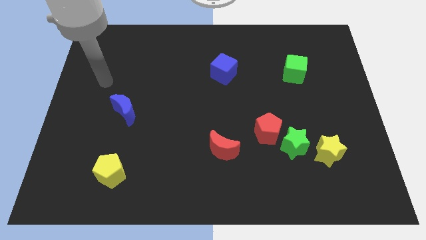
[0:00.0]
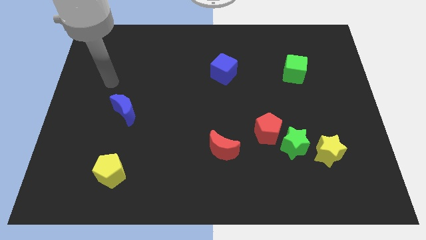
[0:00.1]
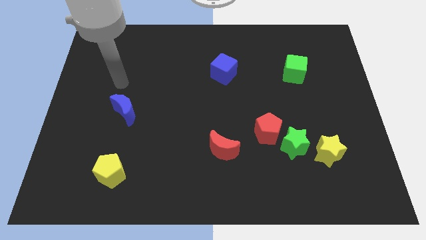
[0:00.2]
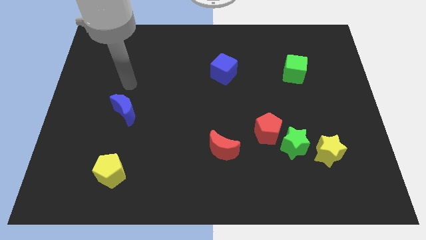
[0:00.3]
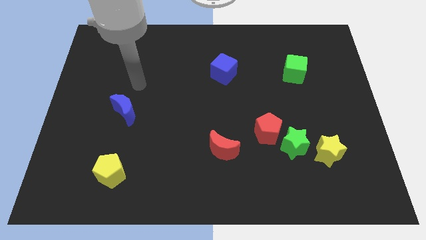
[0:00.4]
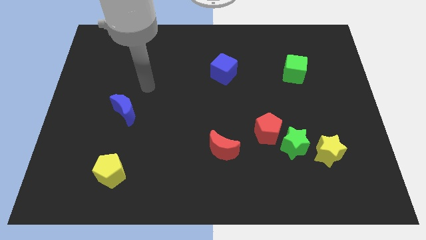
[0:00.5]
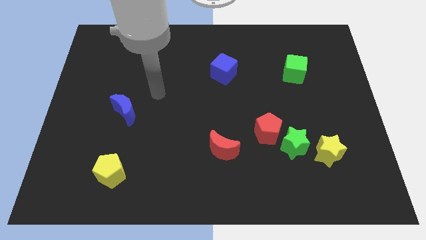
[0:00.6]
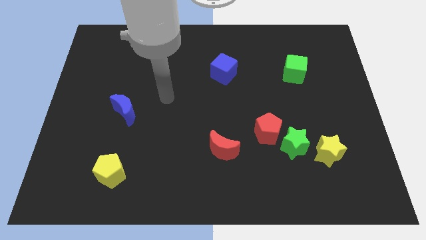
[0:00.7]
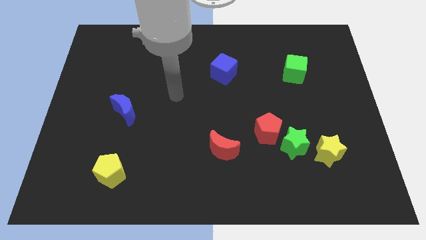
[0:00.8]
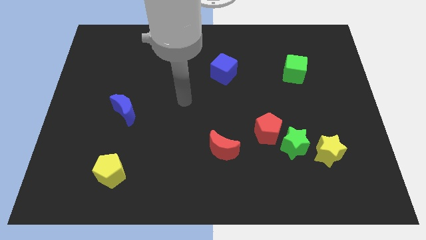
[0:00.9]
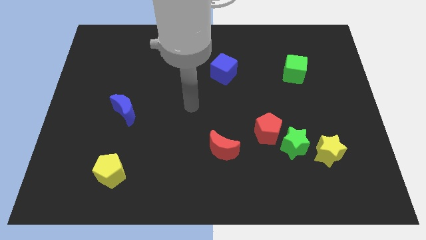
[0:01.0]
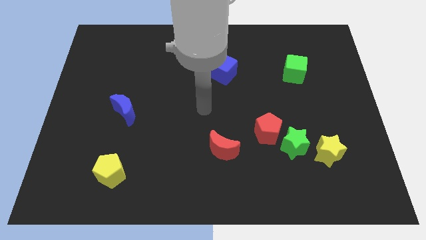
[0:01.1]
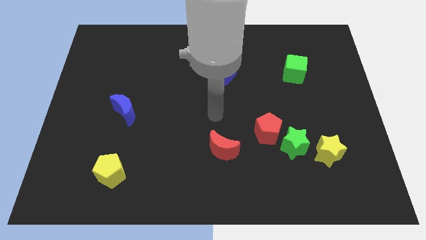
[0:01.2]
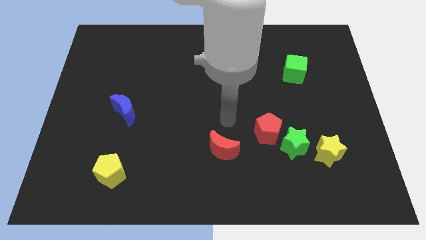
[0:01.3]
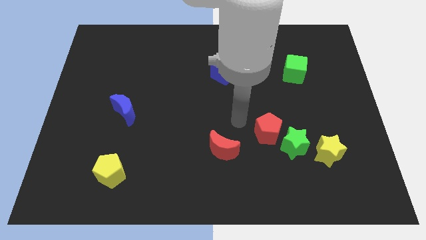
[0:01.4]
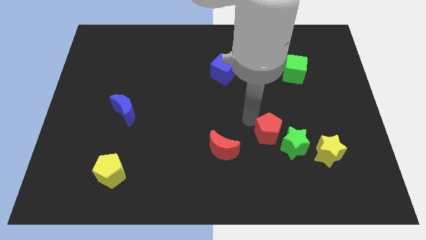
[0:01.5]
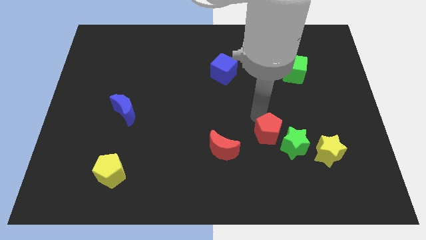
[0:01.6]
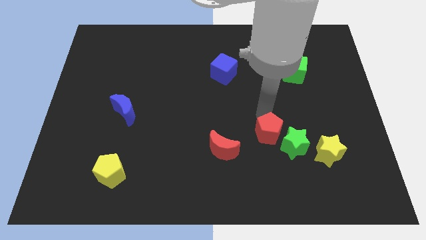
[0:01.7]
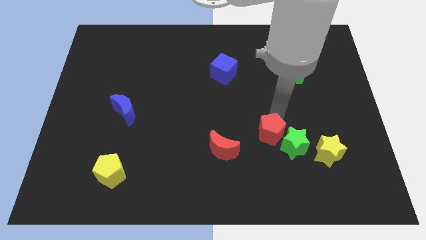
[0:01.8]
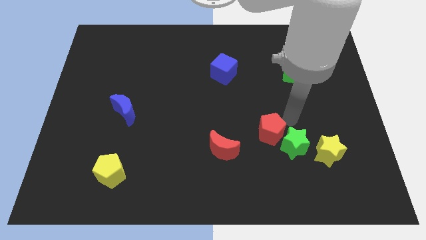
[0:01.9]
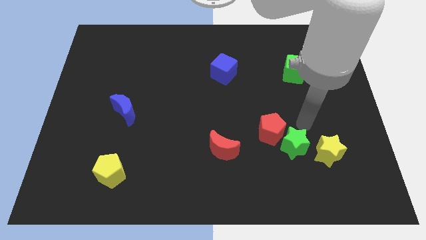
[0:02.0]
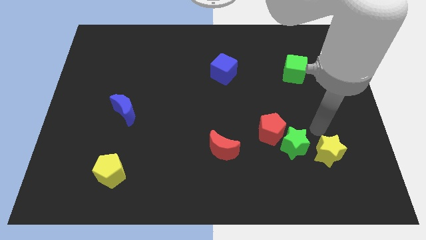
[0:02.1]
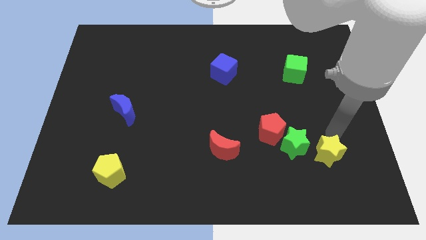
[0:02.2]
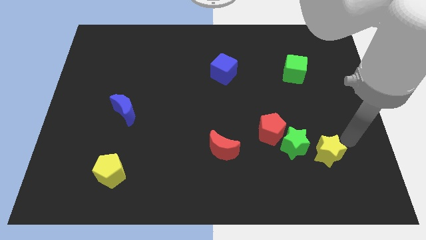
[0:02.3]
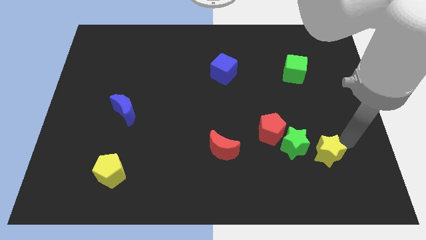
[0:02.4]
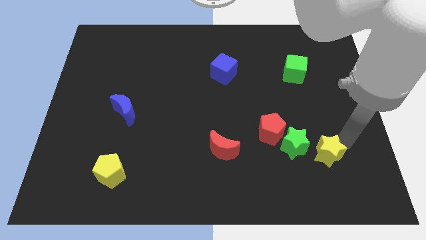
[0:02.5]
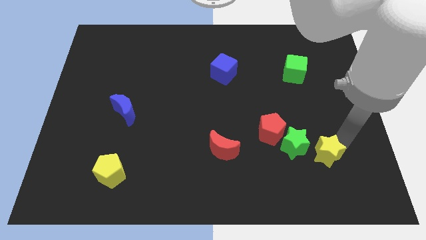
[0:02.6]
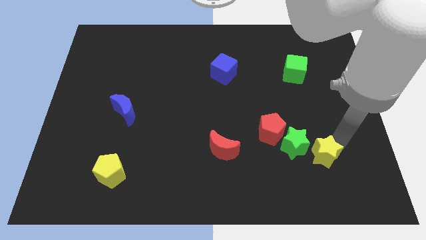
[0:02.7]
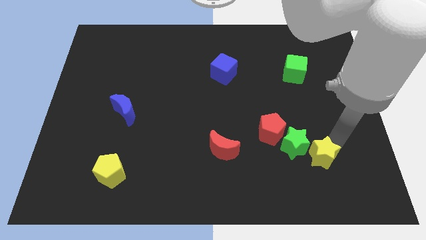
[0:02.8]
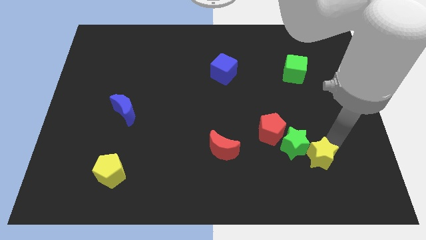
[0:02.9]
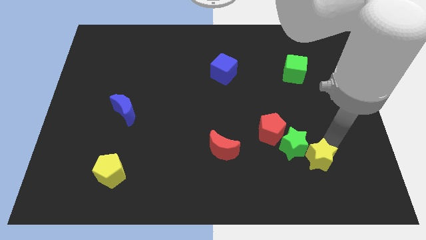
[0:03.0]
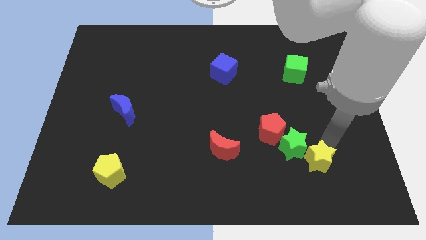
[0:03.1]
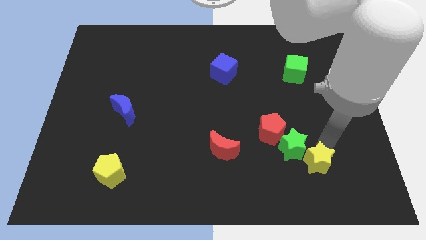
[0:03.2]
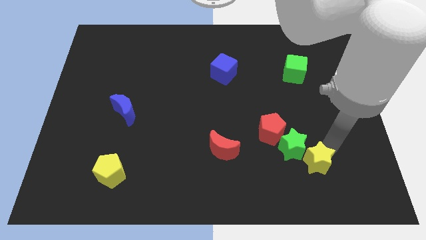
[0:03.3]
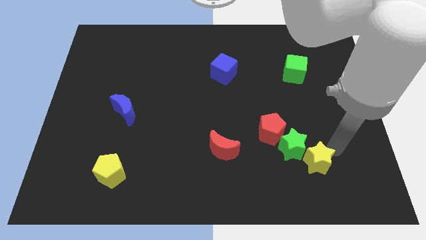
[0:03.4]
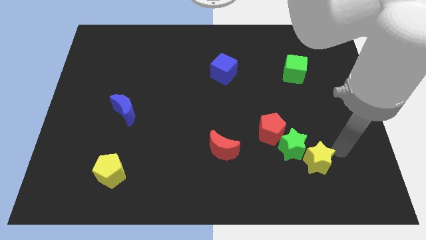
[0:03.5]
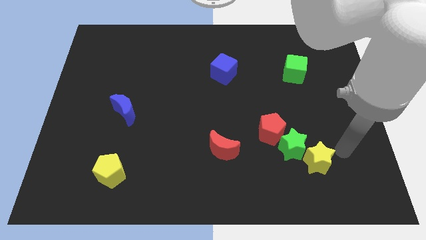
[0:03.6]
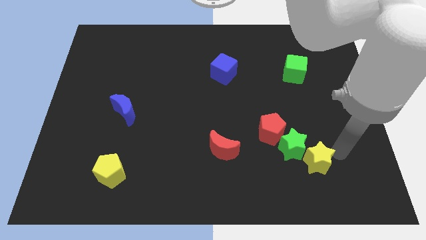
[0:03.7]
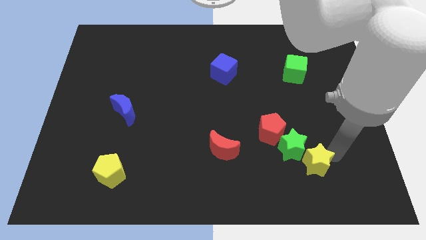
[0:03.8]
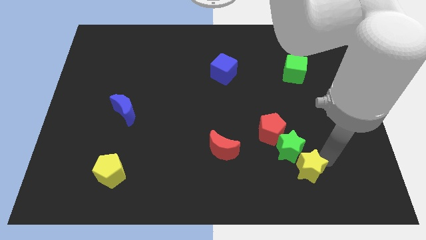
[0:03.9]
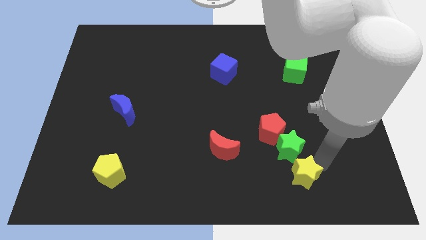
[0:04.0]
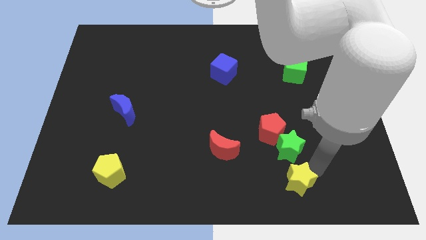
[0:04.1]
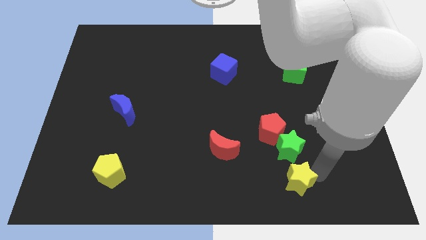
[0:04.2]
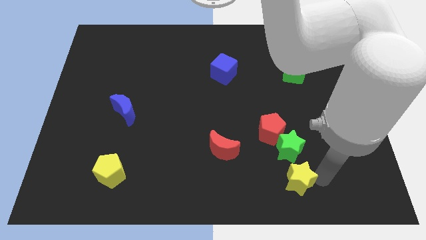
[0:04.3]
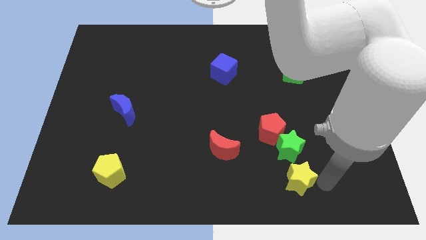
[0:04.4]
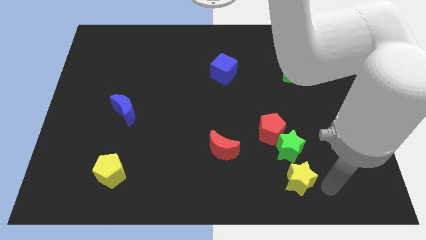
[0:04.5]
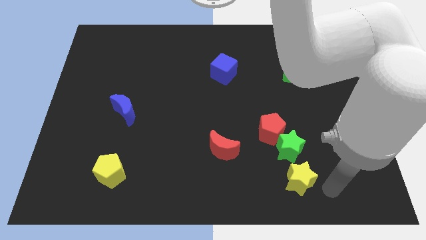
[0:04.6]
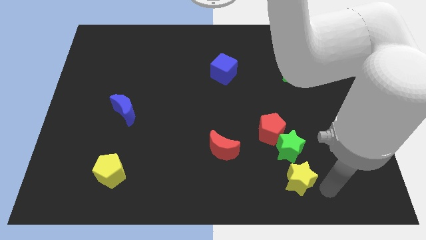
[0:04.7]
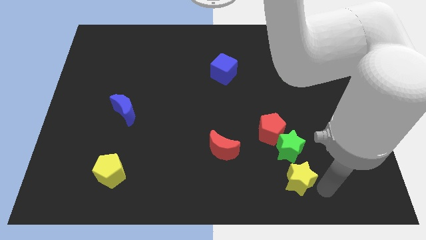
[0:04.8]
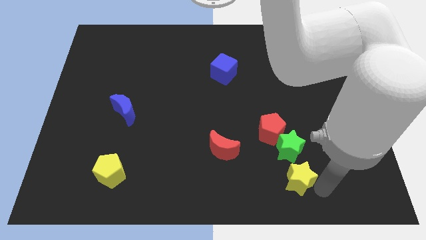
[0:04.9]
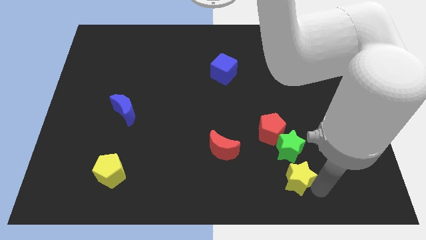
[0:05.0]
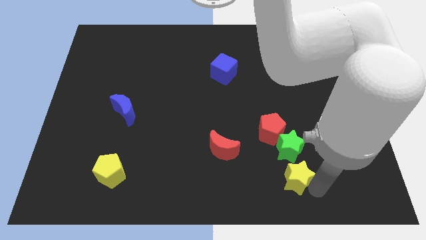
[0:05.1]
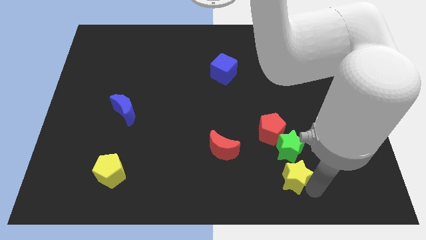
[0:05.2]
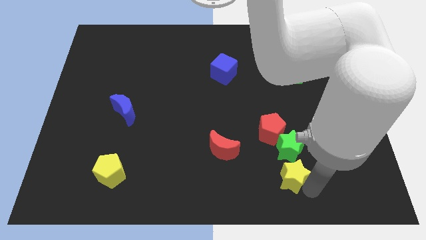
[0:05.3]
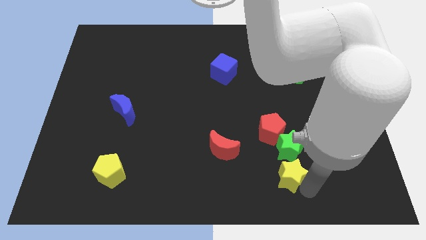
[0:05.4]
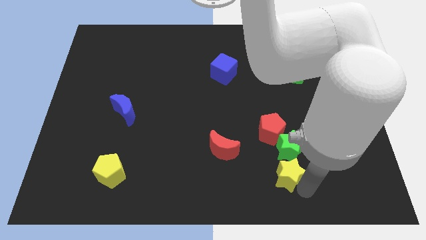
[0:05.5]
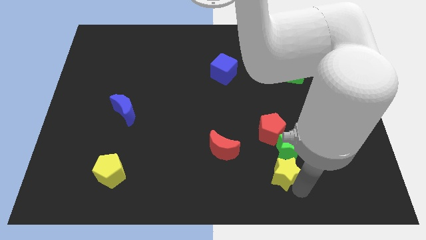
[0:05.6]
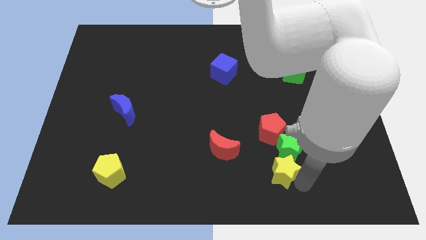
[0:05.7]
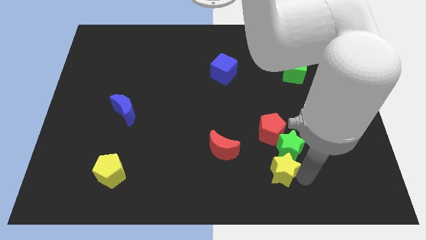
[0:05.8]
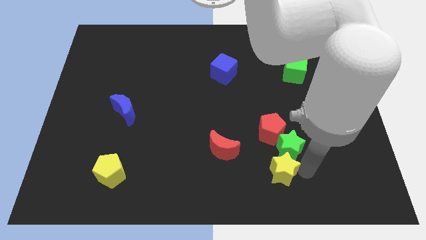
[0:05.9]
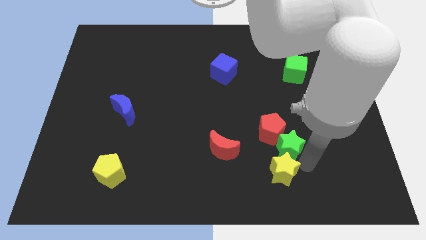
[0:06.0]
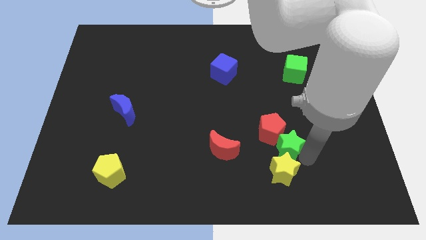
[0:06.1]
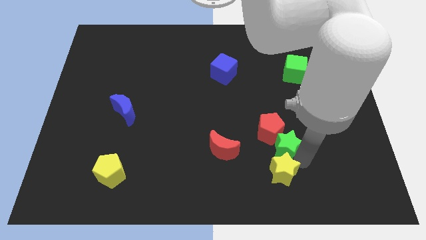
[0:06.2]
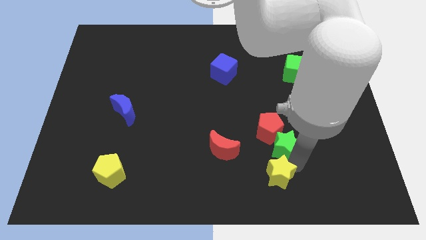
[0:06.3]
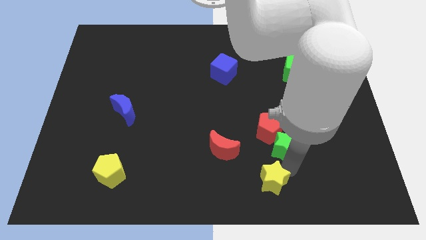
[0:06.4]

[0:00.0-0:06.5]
slide the yellow star to the bottom side

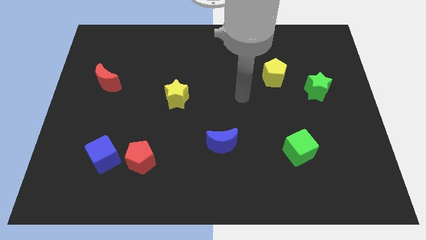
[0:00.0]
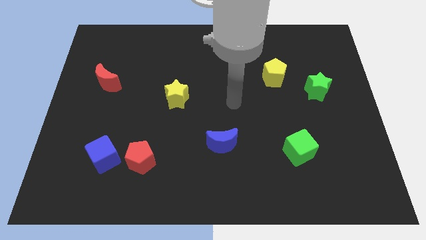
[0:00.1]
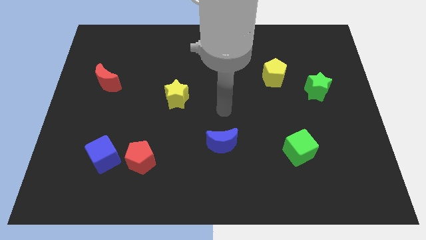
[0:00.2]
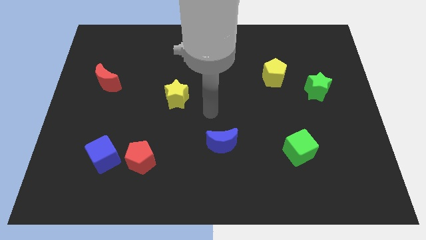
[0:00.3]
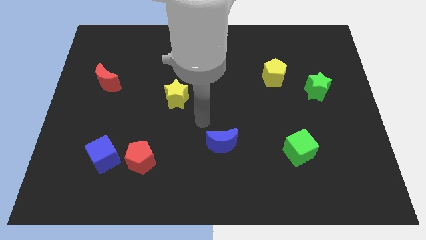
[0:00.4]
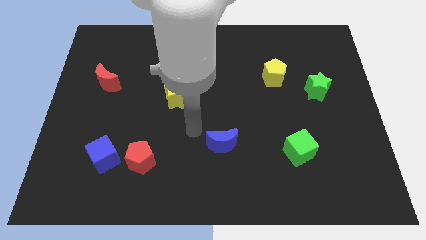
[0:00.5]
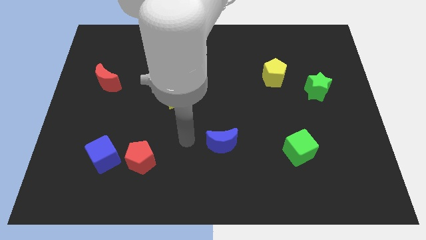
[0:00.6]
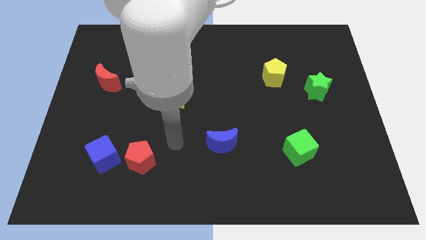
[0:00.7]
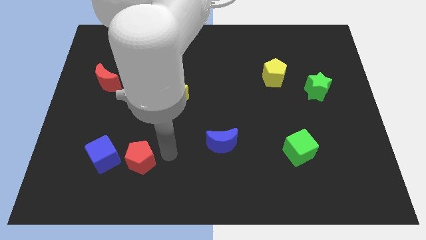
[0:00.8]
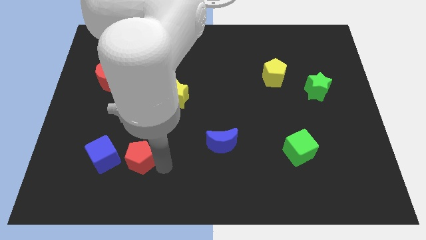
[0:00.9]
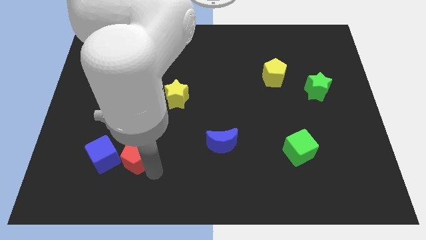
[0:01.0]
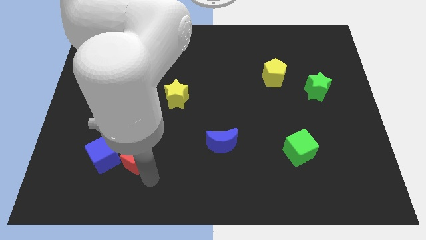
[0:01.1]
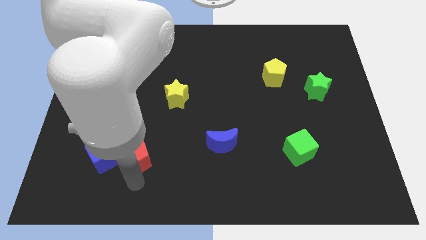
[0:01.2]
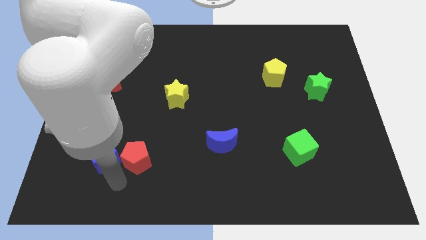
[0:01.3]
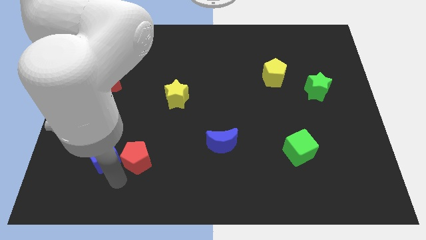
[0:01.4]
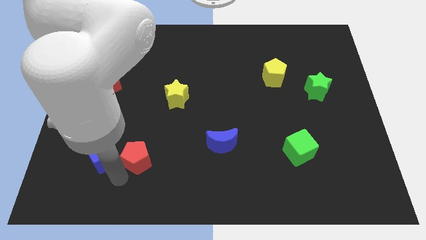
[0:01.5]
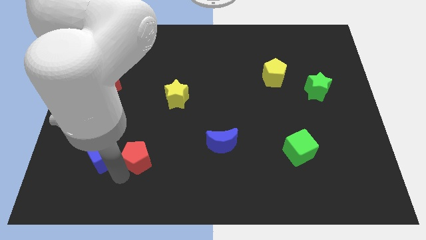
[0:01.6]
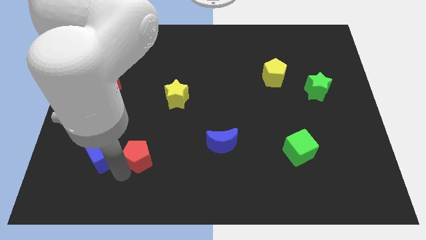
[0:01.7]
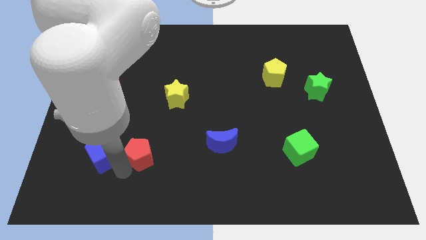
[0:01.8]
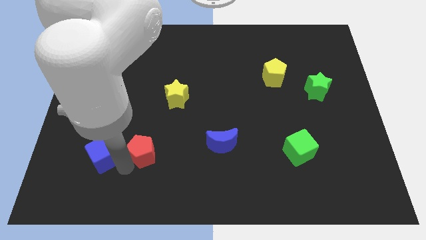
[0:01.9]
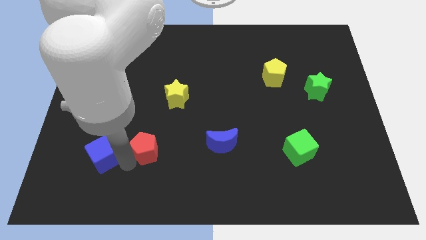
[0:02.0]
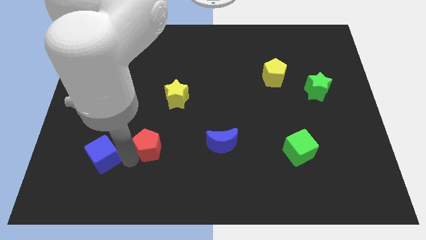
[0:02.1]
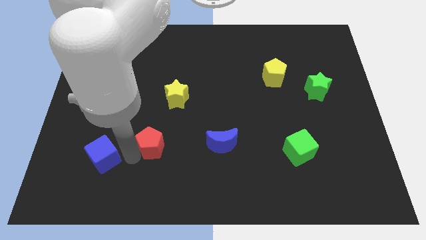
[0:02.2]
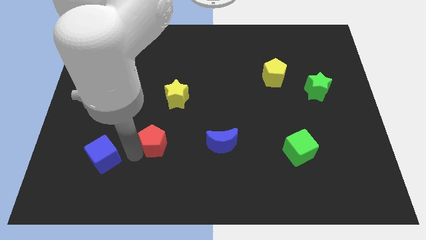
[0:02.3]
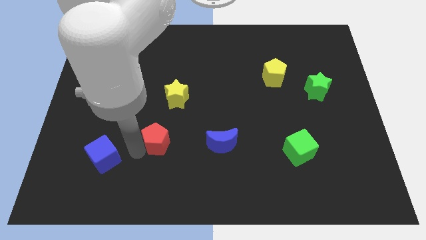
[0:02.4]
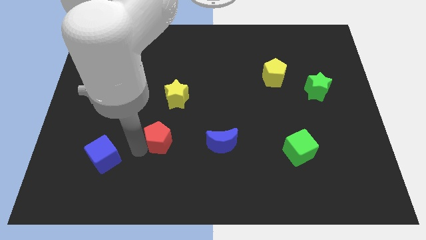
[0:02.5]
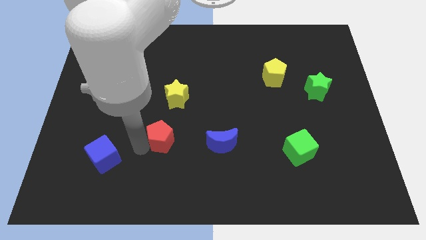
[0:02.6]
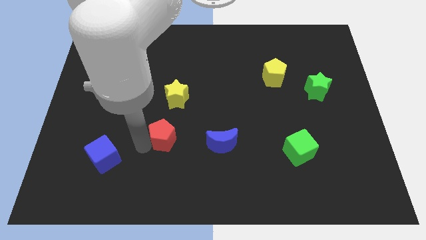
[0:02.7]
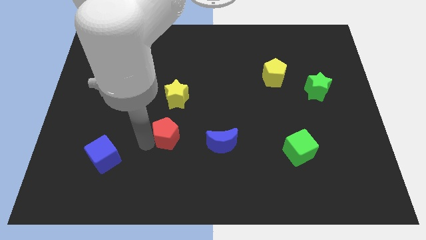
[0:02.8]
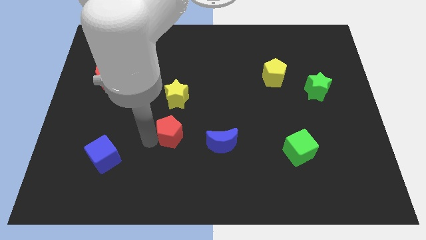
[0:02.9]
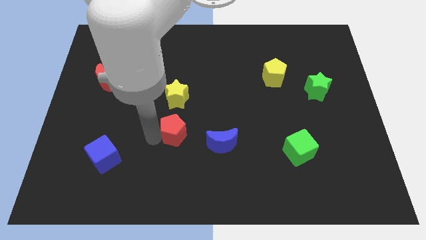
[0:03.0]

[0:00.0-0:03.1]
move the red pentagon to the middle of the board
